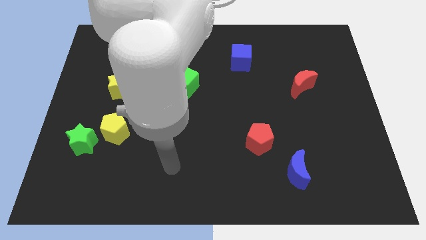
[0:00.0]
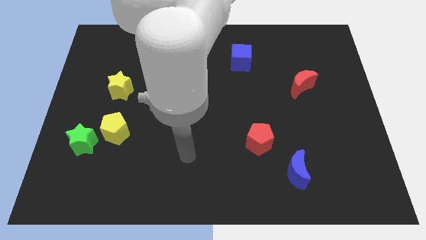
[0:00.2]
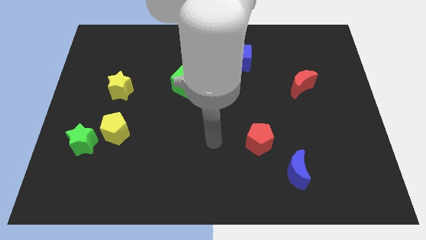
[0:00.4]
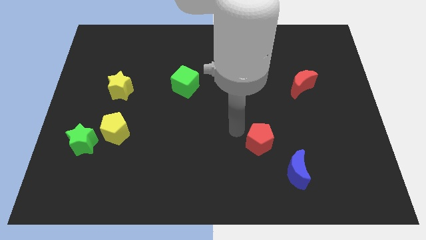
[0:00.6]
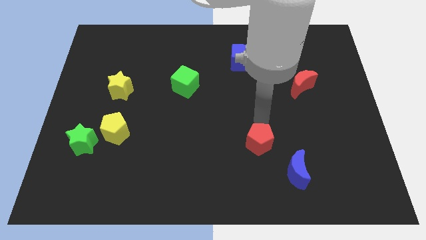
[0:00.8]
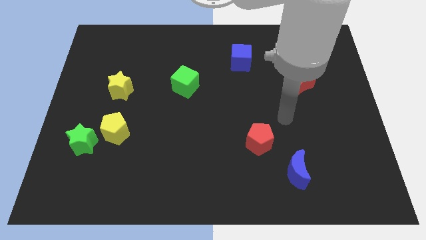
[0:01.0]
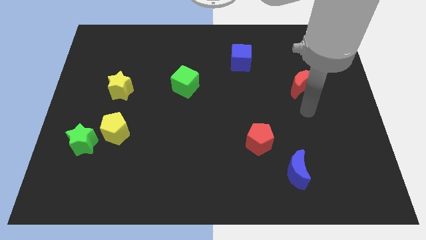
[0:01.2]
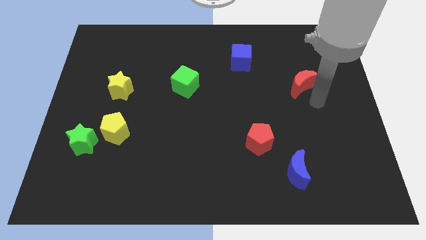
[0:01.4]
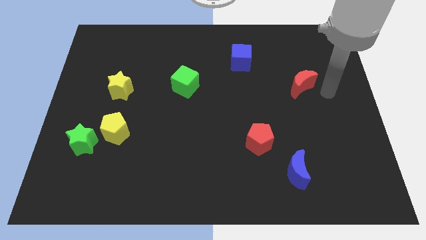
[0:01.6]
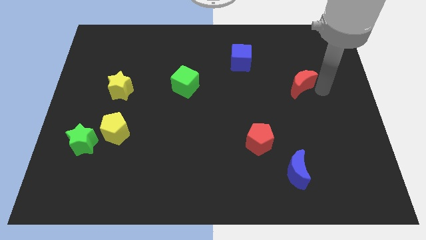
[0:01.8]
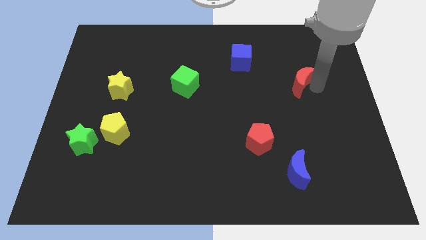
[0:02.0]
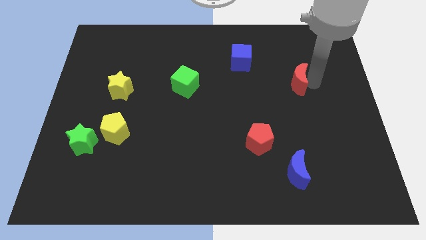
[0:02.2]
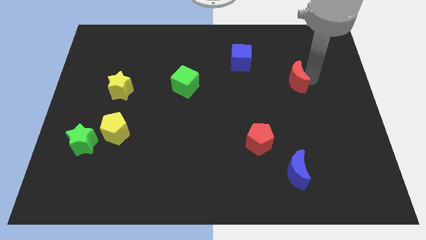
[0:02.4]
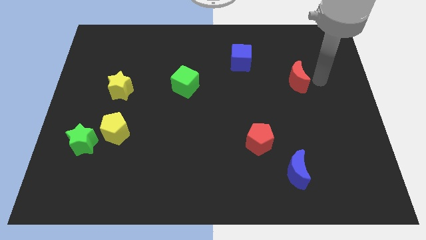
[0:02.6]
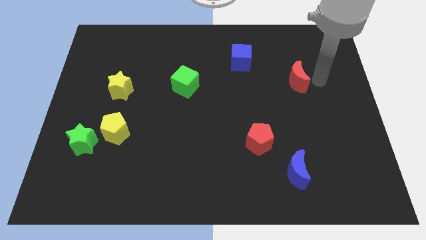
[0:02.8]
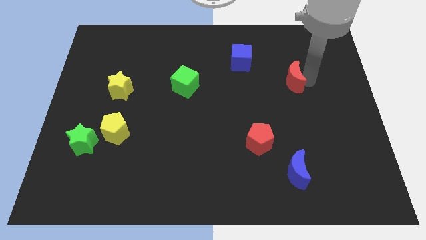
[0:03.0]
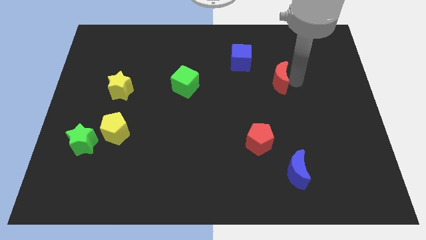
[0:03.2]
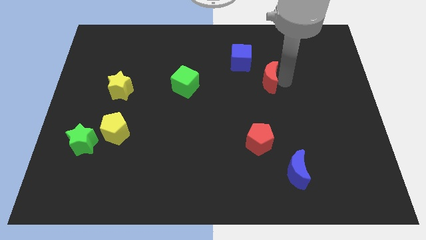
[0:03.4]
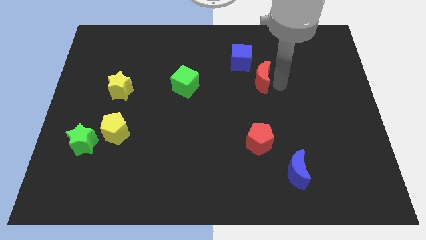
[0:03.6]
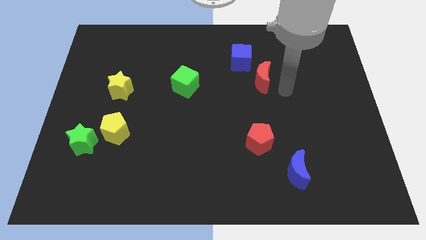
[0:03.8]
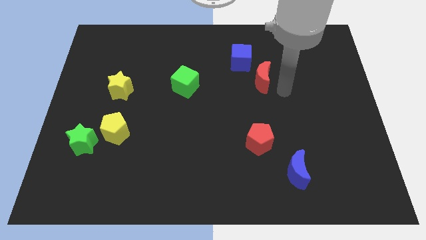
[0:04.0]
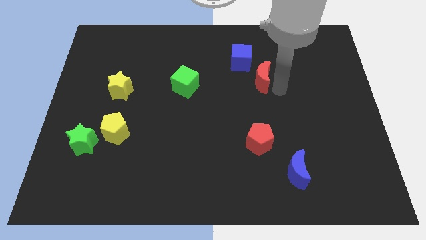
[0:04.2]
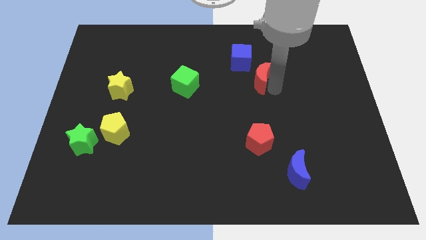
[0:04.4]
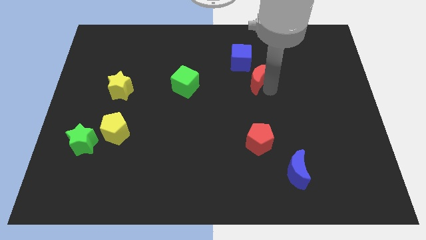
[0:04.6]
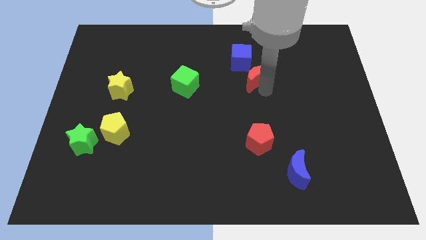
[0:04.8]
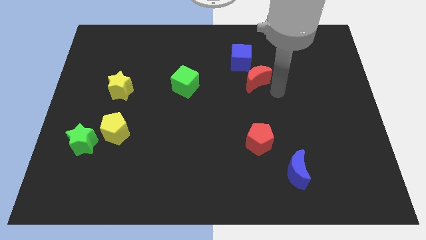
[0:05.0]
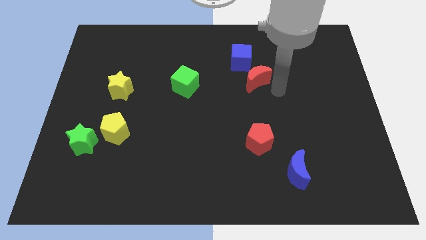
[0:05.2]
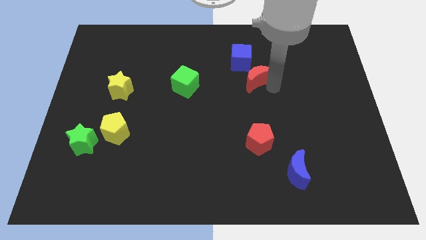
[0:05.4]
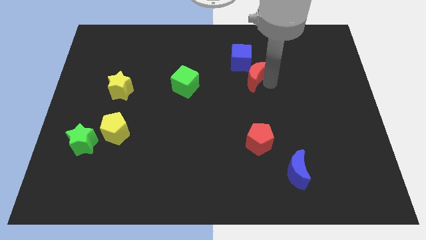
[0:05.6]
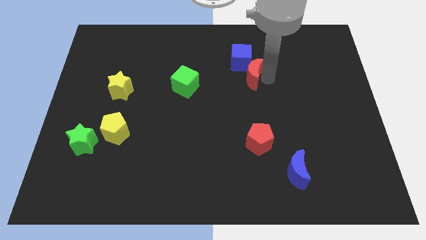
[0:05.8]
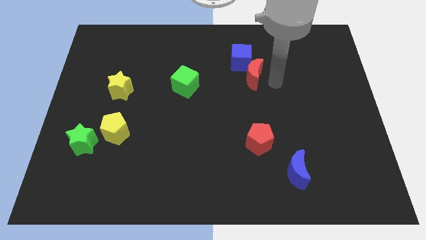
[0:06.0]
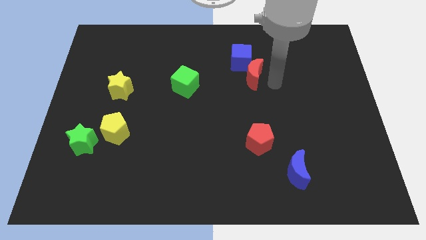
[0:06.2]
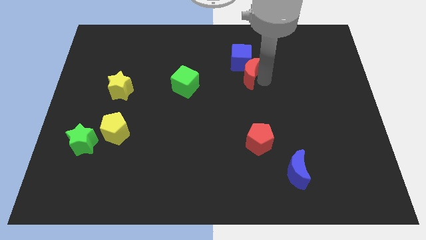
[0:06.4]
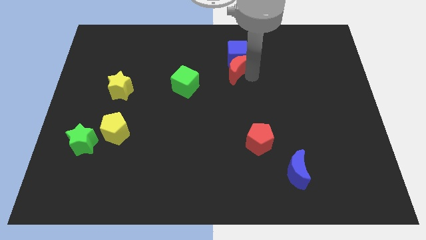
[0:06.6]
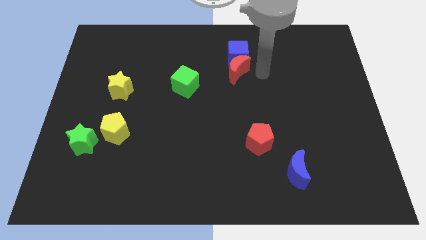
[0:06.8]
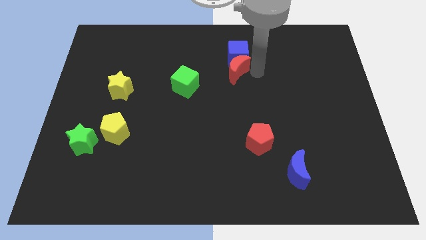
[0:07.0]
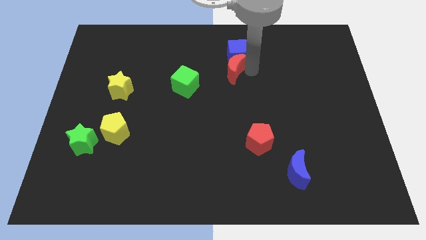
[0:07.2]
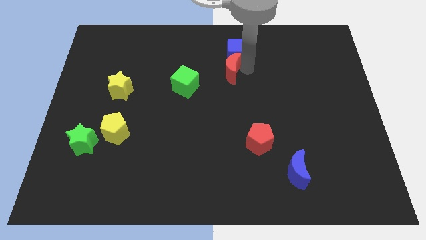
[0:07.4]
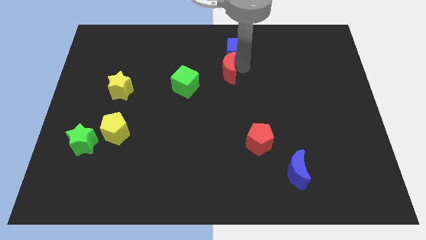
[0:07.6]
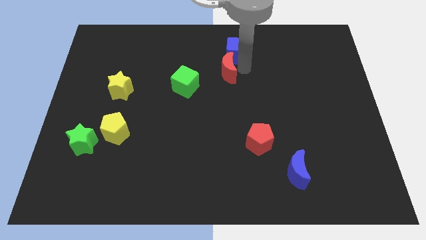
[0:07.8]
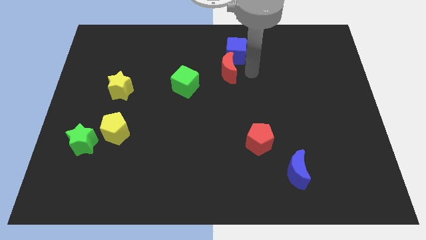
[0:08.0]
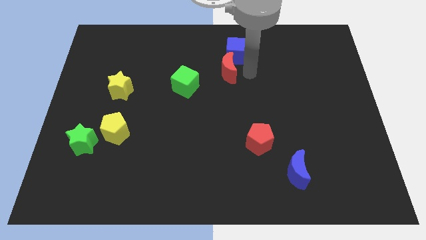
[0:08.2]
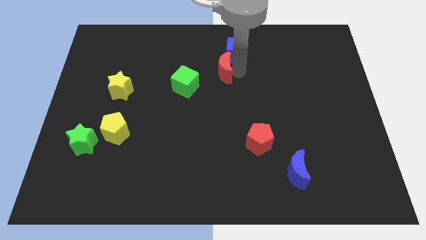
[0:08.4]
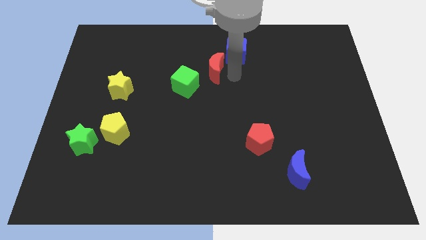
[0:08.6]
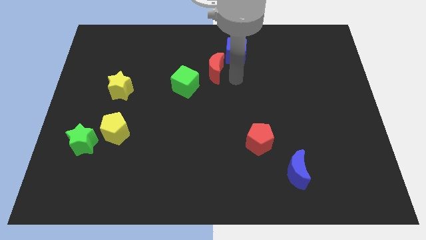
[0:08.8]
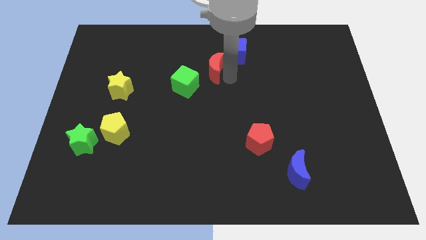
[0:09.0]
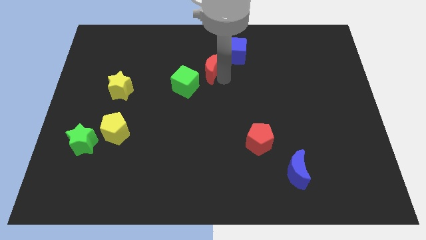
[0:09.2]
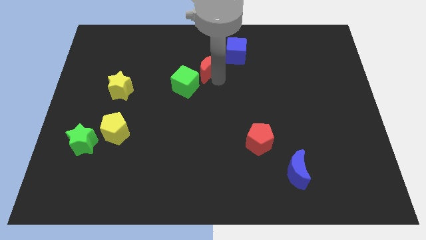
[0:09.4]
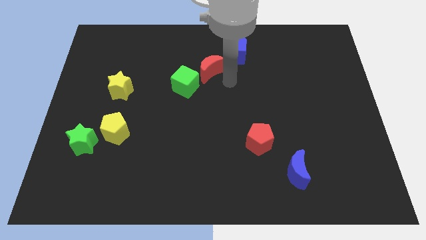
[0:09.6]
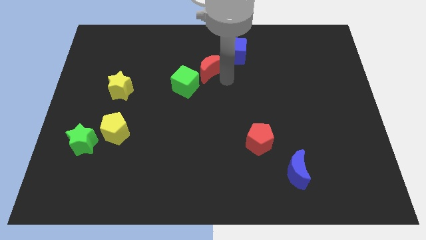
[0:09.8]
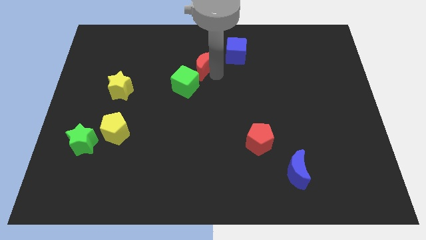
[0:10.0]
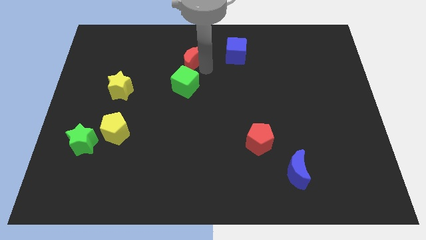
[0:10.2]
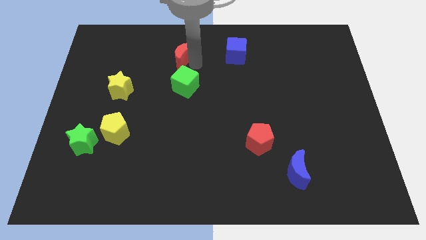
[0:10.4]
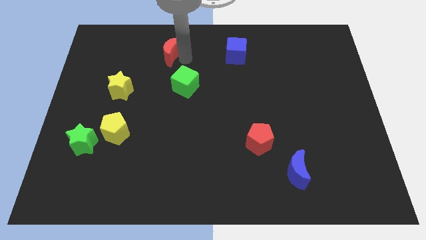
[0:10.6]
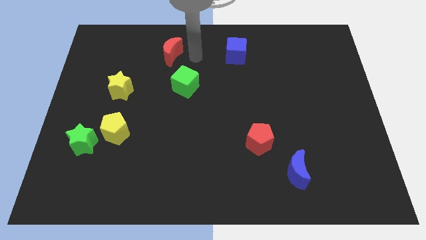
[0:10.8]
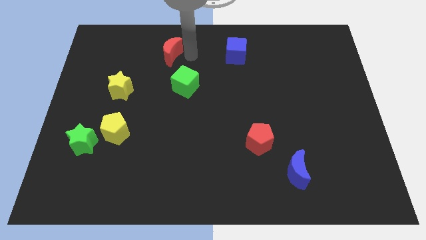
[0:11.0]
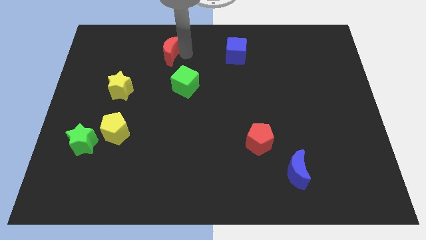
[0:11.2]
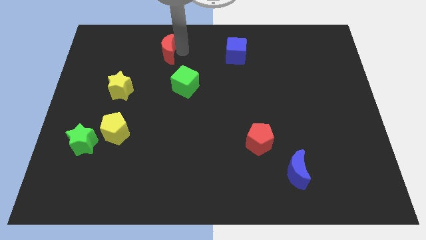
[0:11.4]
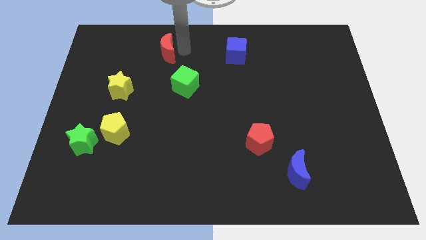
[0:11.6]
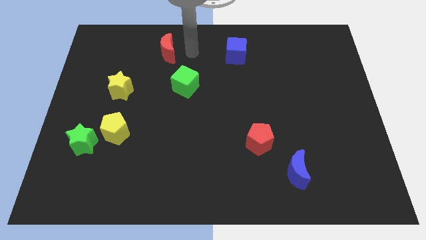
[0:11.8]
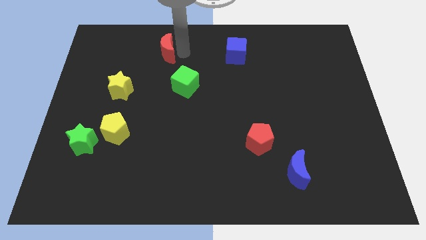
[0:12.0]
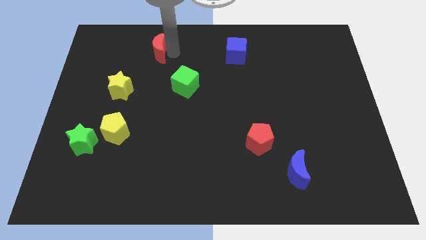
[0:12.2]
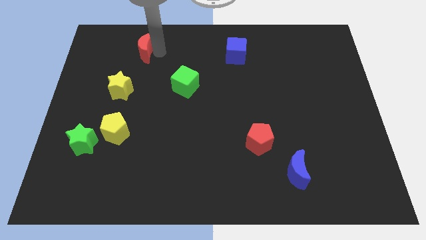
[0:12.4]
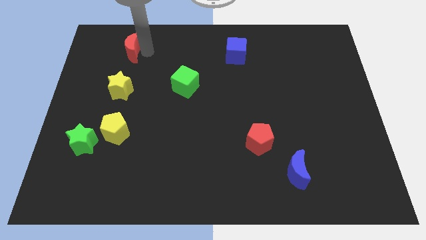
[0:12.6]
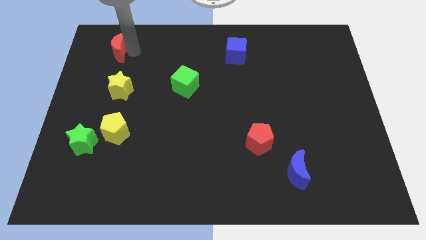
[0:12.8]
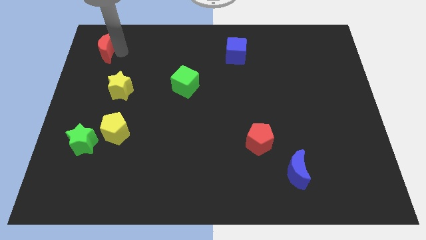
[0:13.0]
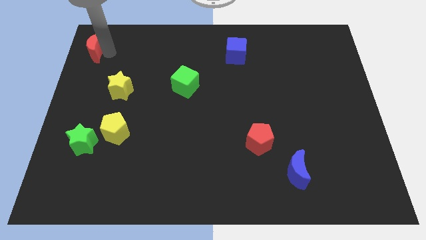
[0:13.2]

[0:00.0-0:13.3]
put the red moon to the top left of the board

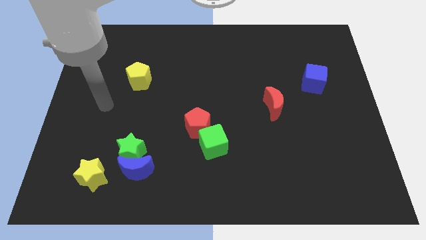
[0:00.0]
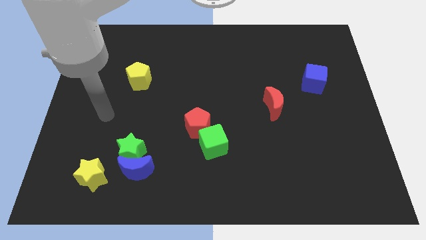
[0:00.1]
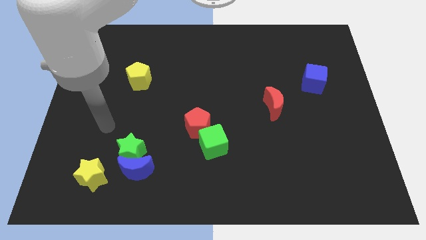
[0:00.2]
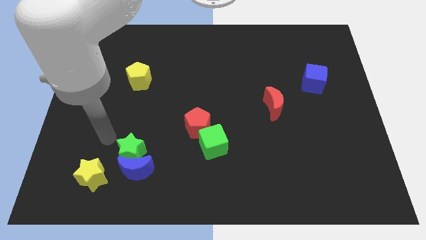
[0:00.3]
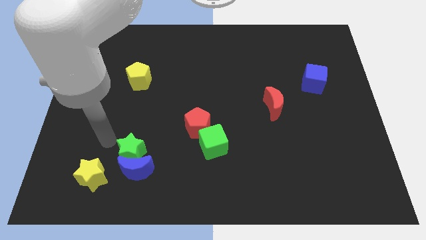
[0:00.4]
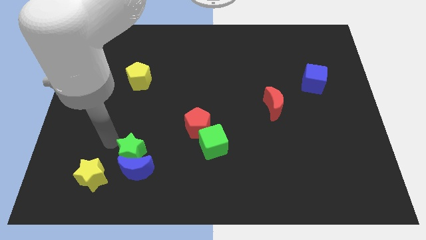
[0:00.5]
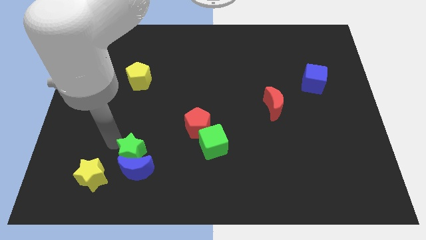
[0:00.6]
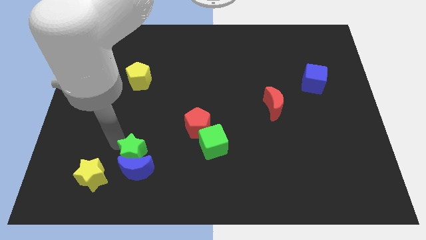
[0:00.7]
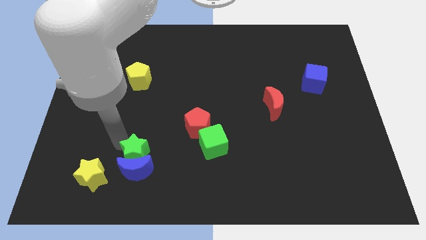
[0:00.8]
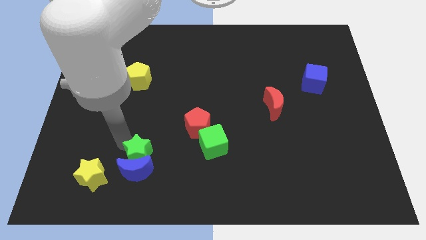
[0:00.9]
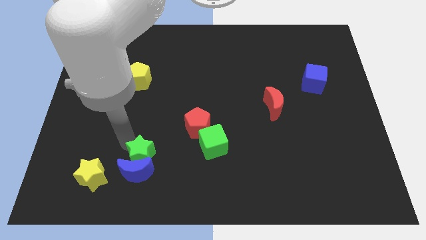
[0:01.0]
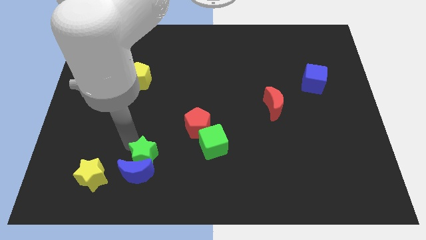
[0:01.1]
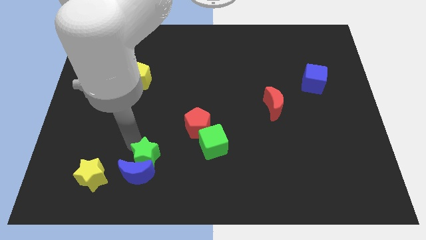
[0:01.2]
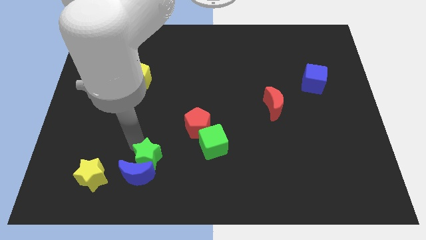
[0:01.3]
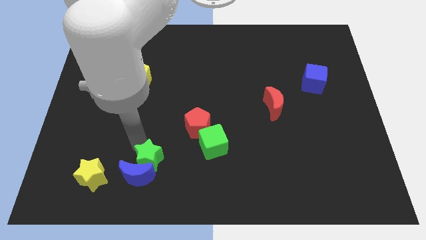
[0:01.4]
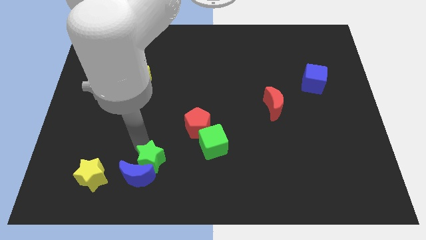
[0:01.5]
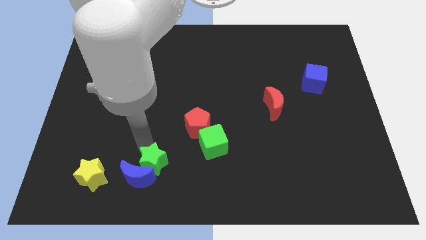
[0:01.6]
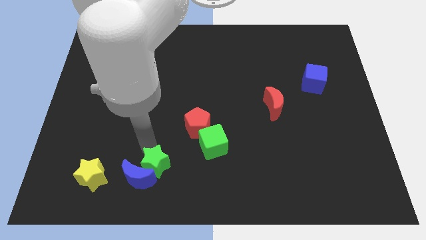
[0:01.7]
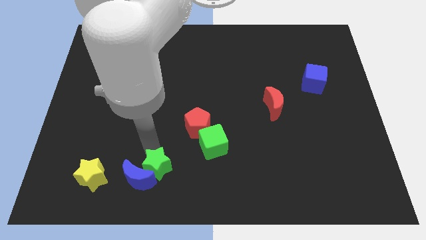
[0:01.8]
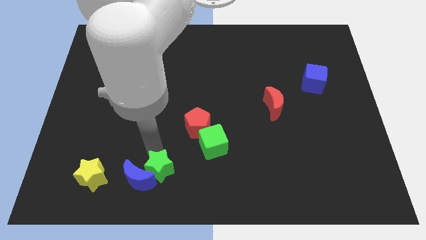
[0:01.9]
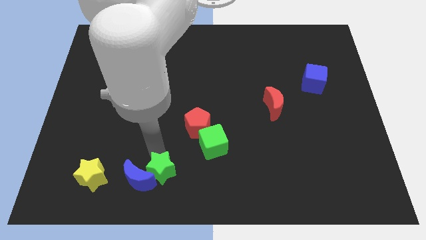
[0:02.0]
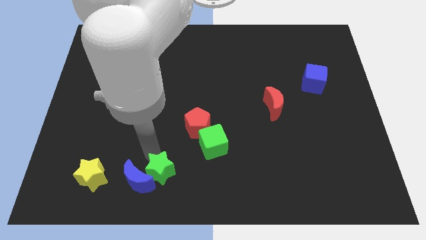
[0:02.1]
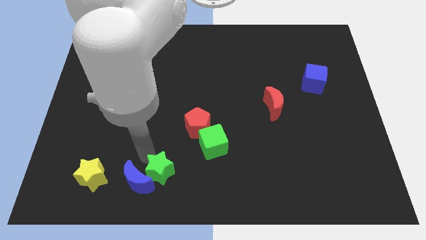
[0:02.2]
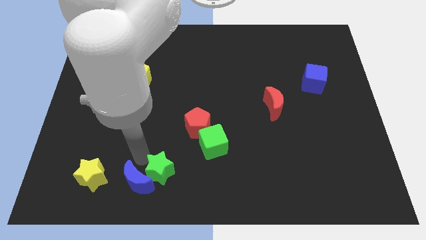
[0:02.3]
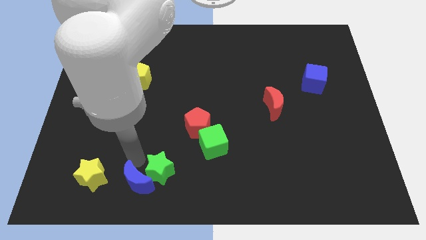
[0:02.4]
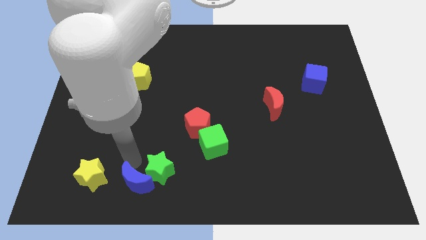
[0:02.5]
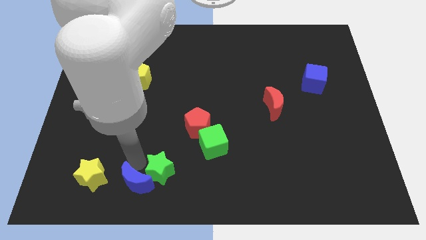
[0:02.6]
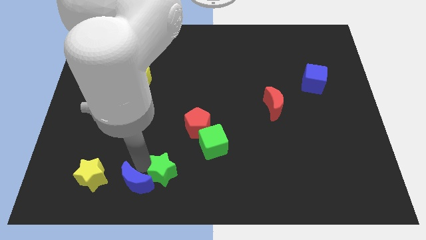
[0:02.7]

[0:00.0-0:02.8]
push the green star to the bottom
